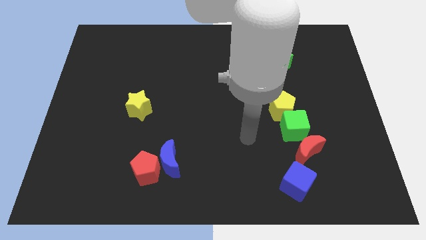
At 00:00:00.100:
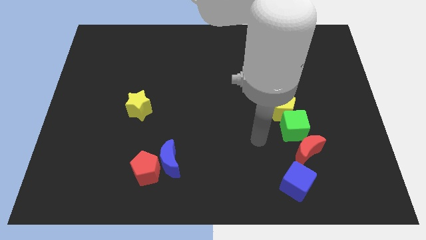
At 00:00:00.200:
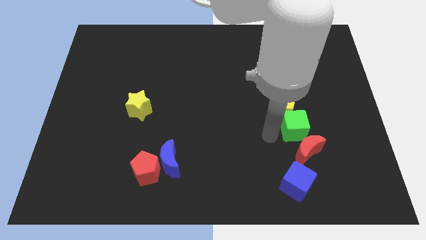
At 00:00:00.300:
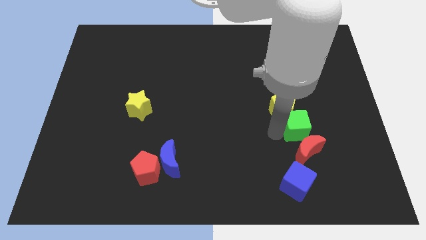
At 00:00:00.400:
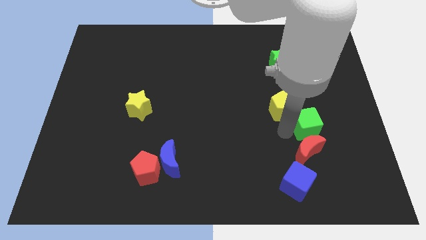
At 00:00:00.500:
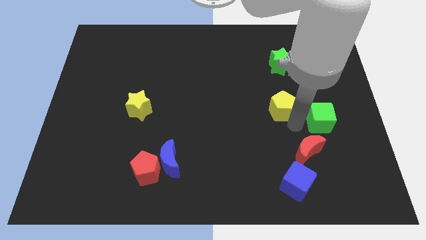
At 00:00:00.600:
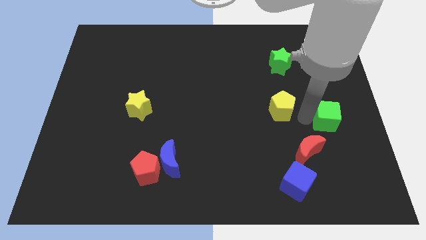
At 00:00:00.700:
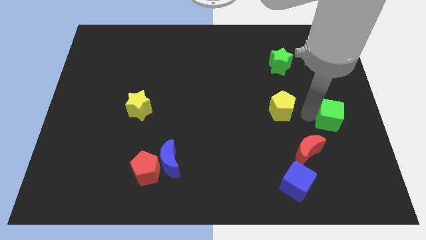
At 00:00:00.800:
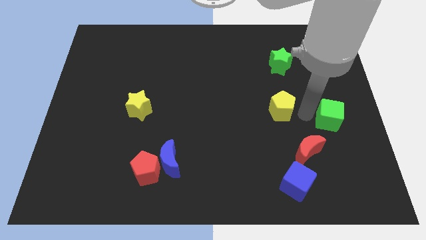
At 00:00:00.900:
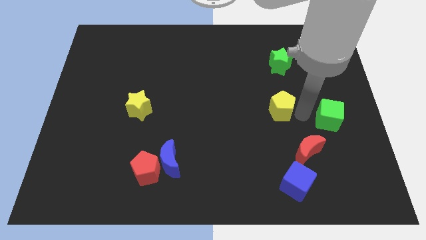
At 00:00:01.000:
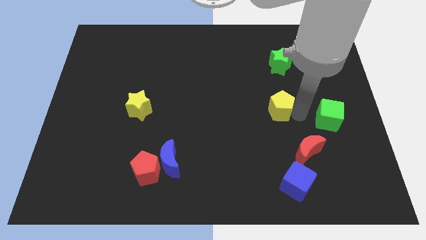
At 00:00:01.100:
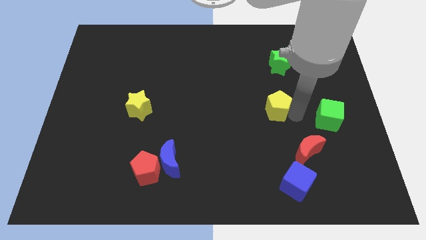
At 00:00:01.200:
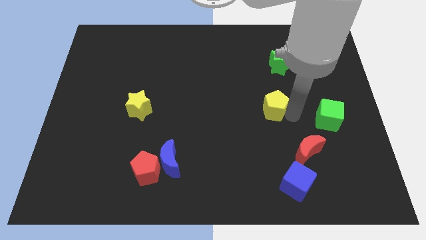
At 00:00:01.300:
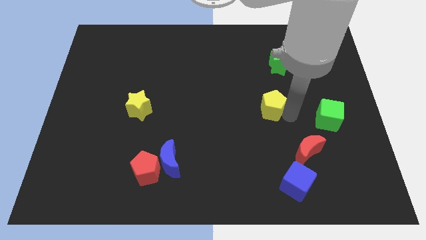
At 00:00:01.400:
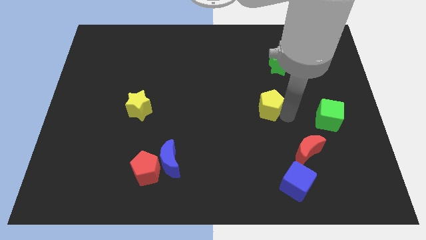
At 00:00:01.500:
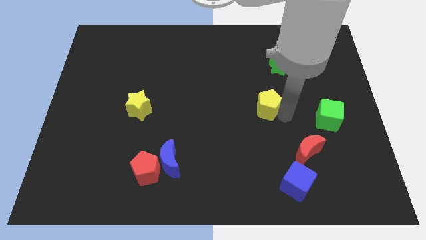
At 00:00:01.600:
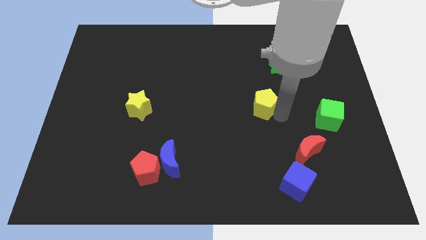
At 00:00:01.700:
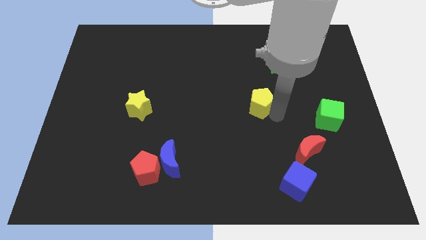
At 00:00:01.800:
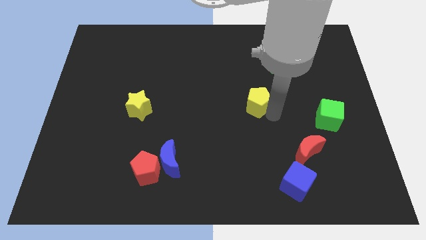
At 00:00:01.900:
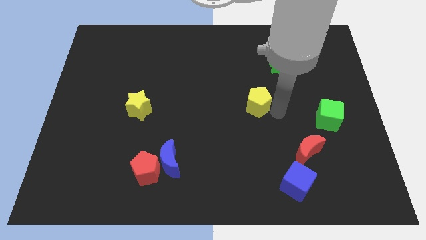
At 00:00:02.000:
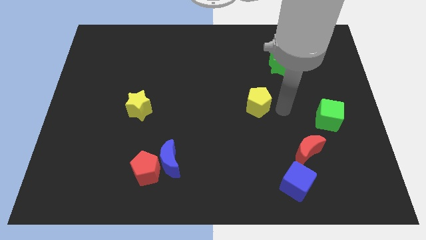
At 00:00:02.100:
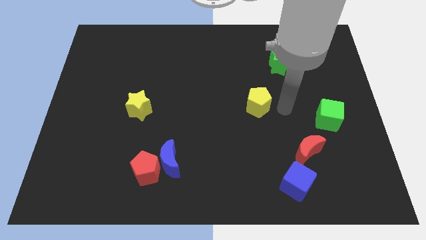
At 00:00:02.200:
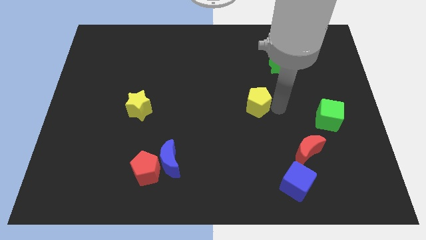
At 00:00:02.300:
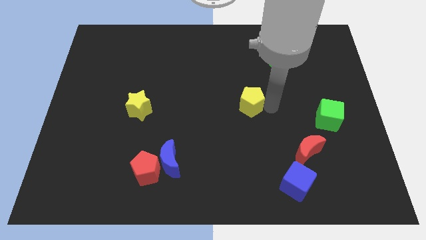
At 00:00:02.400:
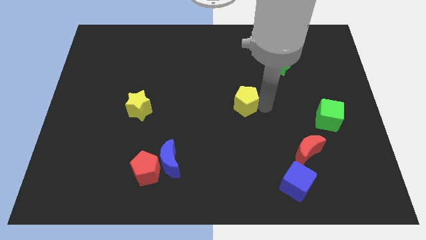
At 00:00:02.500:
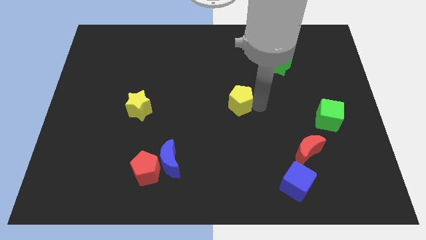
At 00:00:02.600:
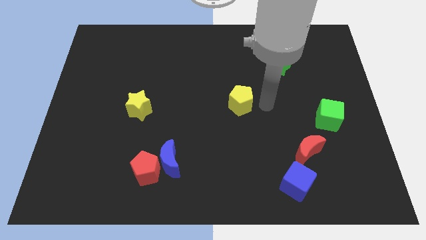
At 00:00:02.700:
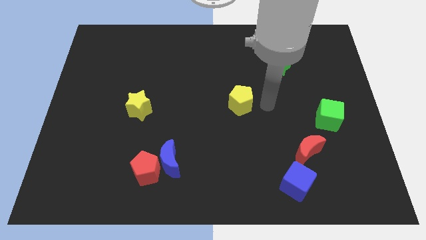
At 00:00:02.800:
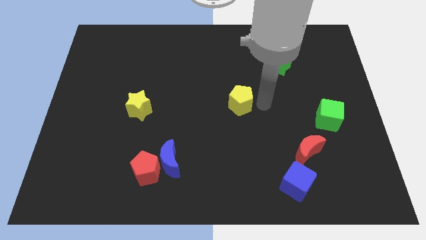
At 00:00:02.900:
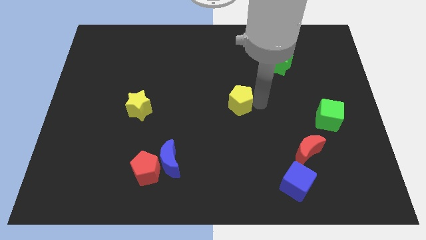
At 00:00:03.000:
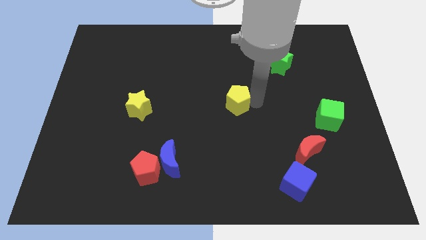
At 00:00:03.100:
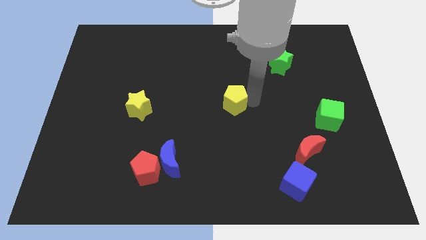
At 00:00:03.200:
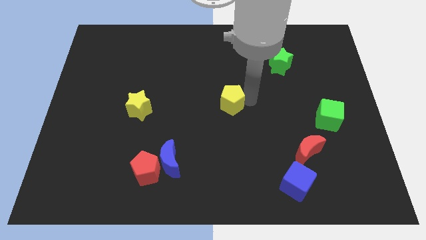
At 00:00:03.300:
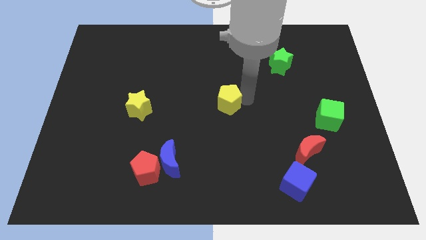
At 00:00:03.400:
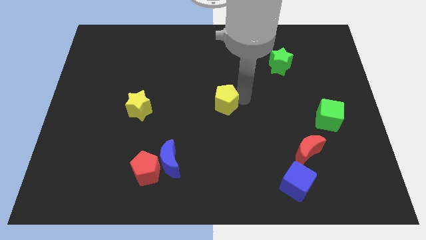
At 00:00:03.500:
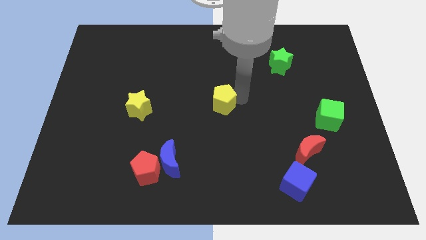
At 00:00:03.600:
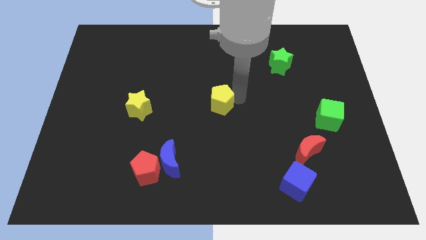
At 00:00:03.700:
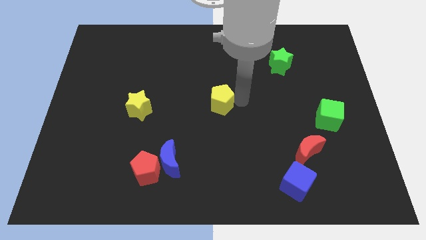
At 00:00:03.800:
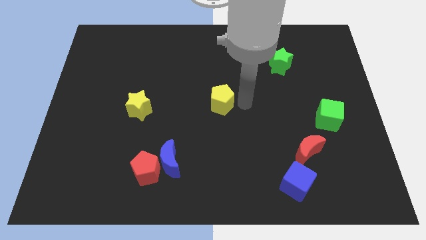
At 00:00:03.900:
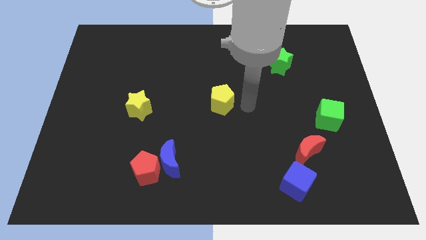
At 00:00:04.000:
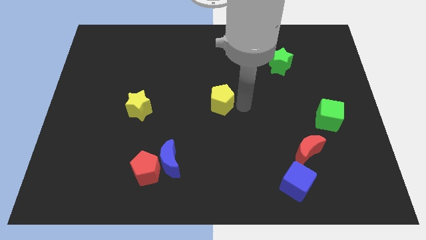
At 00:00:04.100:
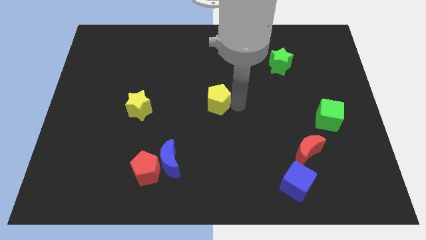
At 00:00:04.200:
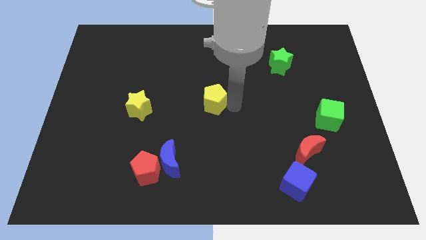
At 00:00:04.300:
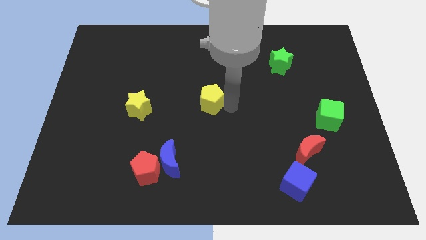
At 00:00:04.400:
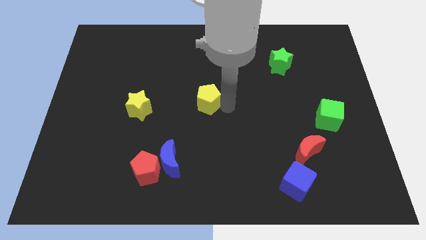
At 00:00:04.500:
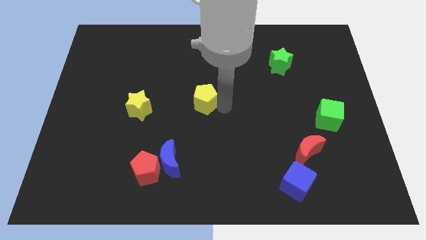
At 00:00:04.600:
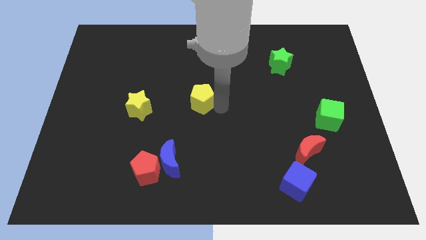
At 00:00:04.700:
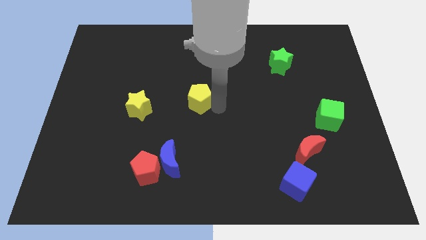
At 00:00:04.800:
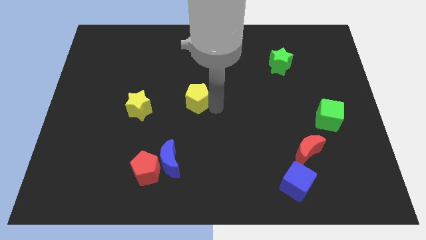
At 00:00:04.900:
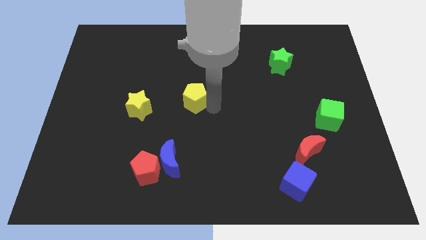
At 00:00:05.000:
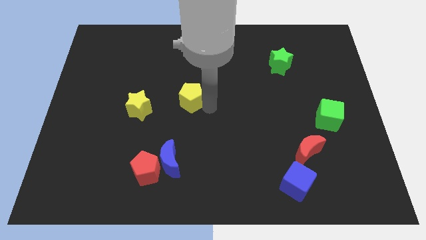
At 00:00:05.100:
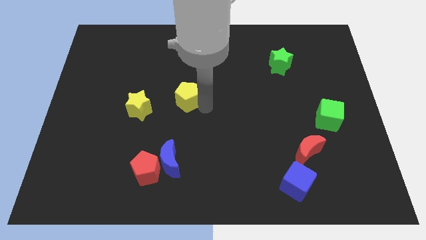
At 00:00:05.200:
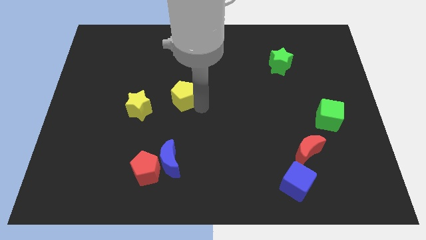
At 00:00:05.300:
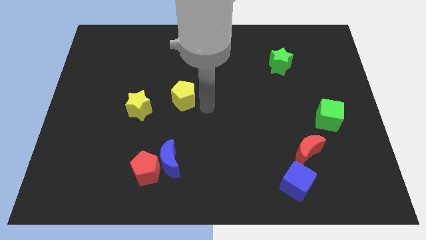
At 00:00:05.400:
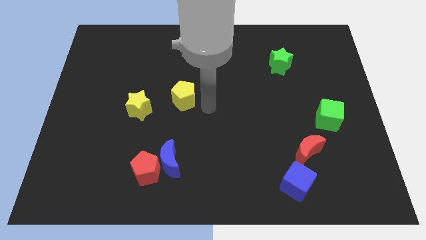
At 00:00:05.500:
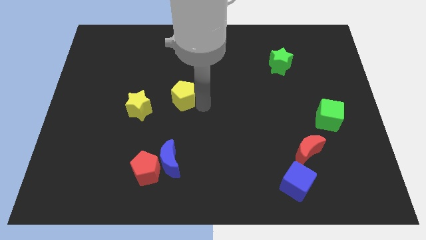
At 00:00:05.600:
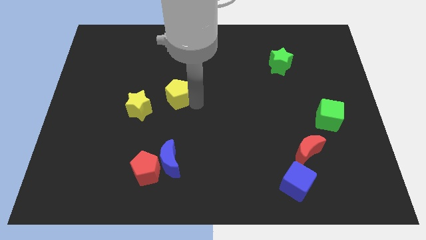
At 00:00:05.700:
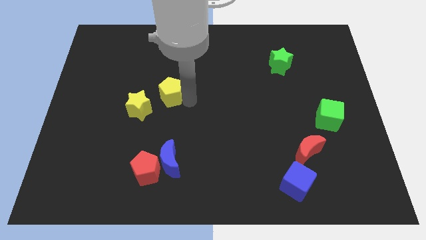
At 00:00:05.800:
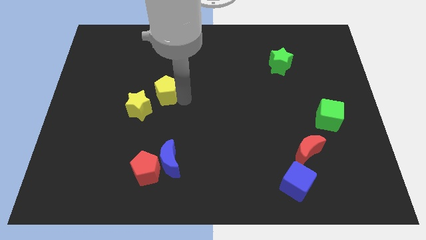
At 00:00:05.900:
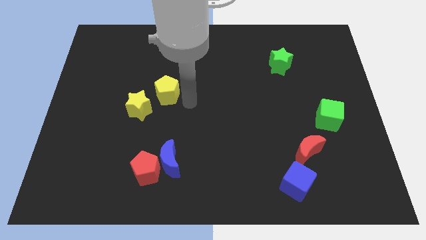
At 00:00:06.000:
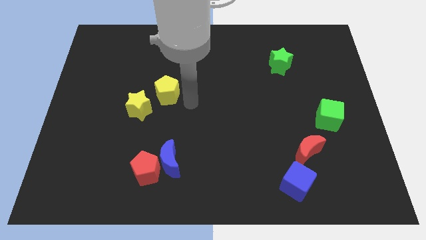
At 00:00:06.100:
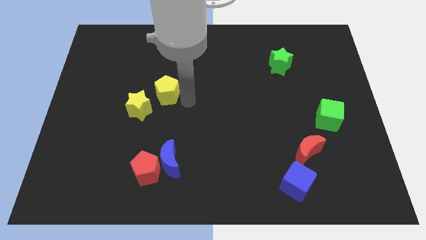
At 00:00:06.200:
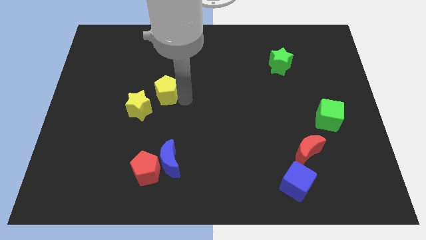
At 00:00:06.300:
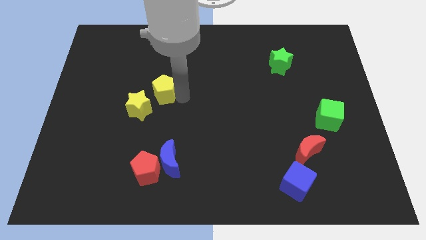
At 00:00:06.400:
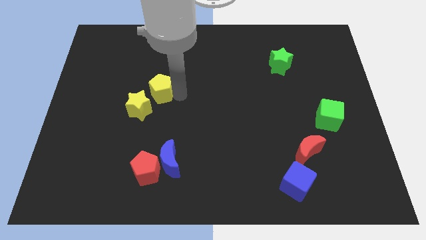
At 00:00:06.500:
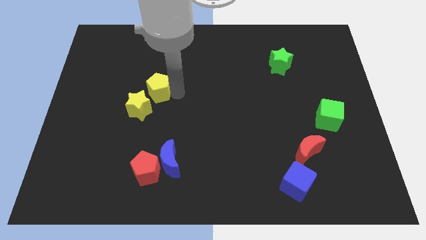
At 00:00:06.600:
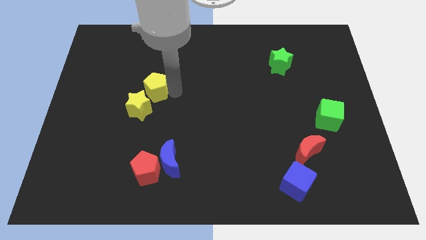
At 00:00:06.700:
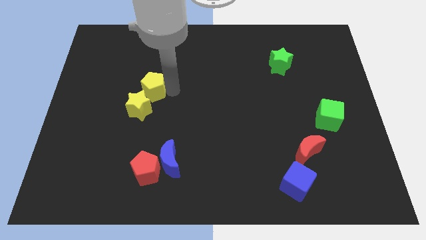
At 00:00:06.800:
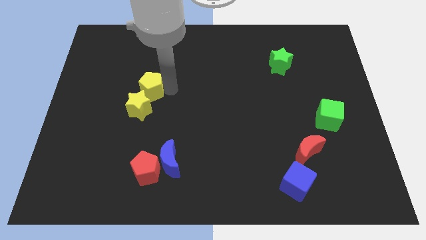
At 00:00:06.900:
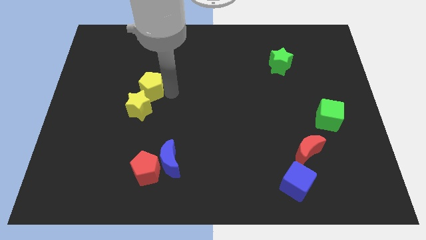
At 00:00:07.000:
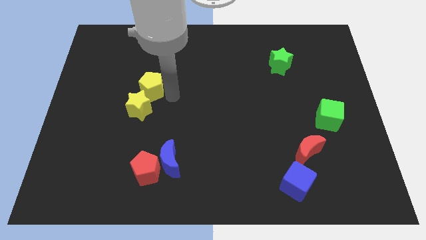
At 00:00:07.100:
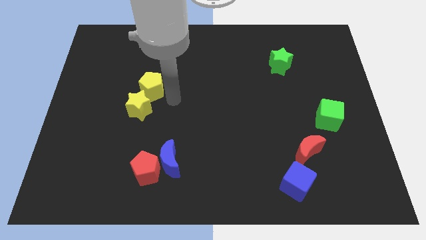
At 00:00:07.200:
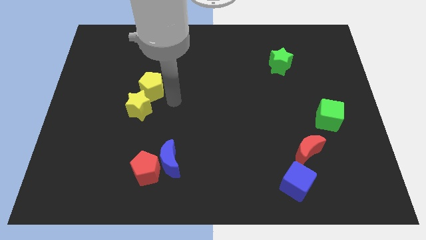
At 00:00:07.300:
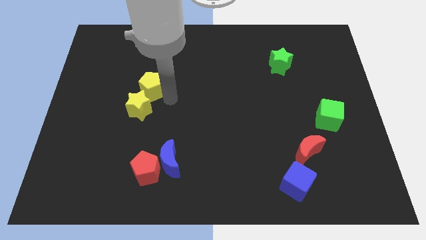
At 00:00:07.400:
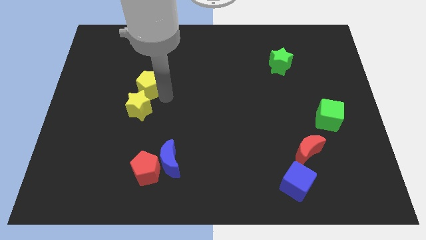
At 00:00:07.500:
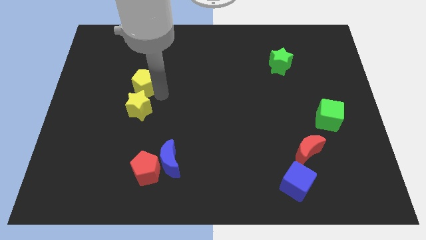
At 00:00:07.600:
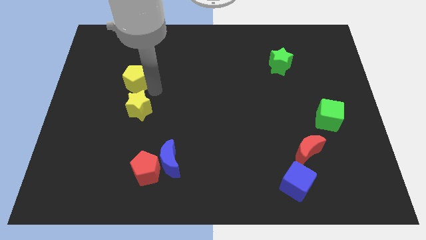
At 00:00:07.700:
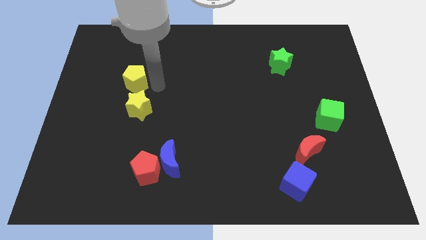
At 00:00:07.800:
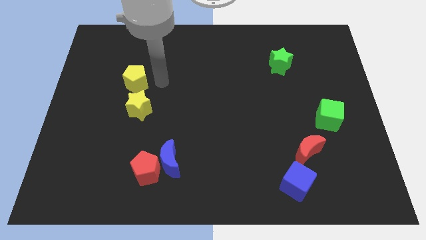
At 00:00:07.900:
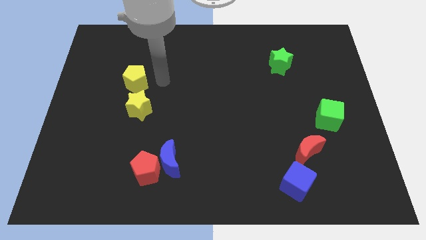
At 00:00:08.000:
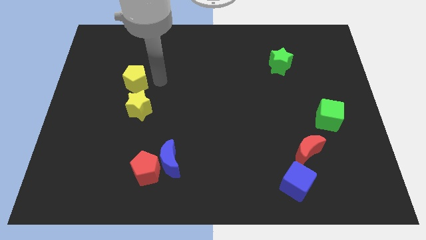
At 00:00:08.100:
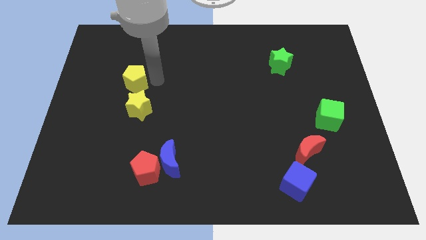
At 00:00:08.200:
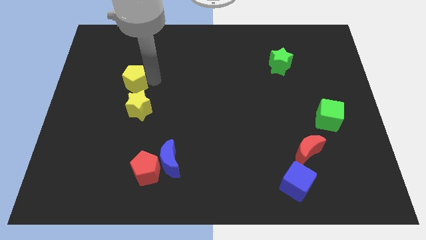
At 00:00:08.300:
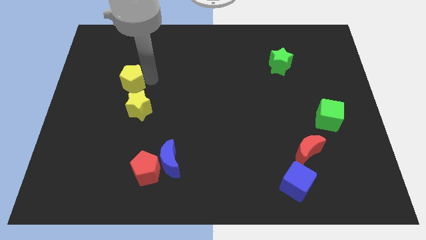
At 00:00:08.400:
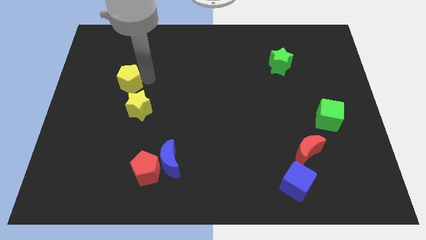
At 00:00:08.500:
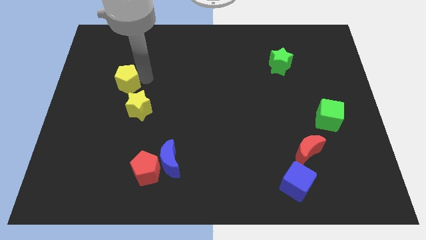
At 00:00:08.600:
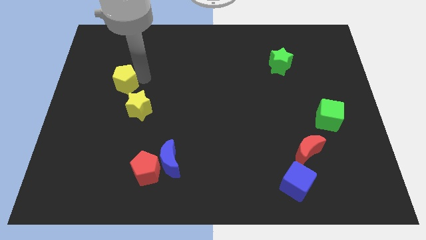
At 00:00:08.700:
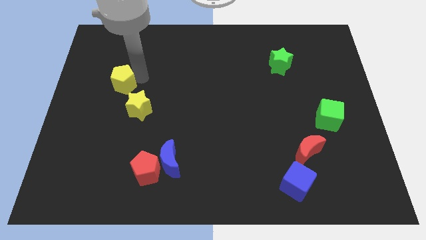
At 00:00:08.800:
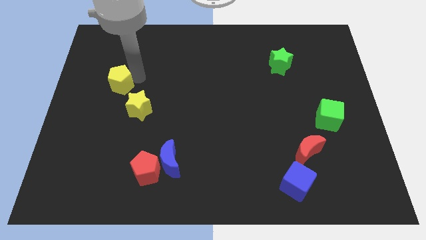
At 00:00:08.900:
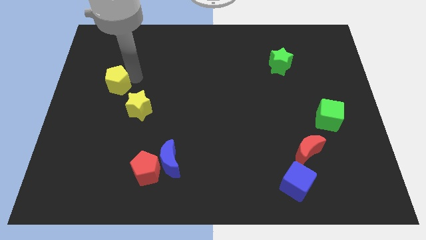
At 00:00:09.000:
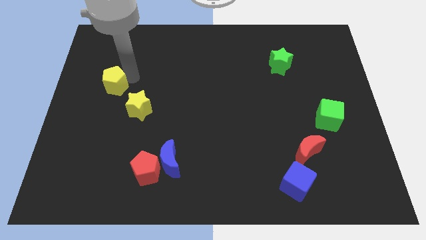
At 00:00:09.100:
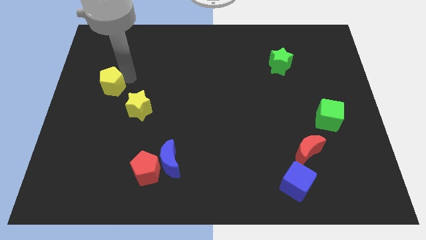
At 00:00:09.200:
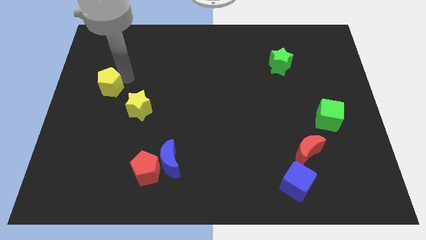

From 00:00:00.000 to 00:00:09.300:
move the yellow pentagon to the center left
